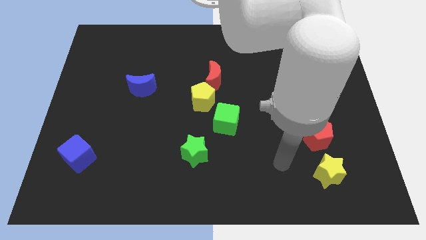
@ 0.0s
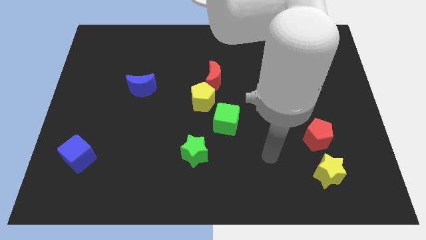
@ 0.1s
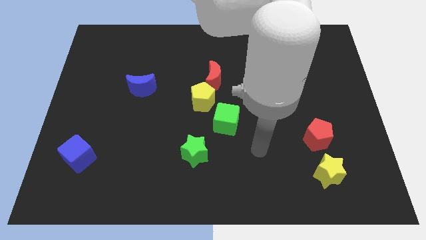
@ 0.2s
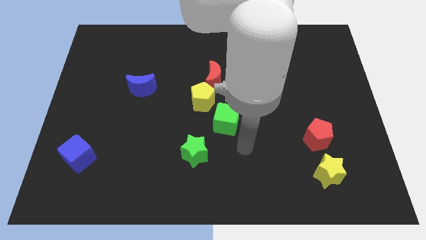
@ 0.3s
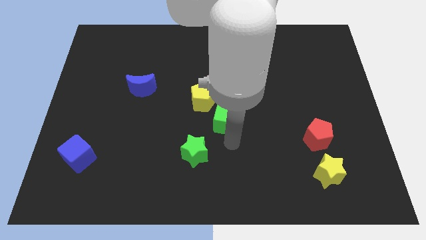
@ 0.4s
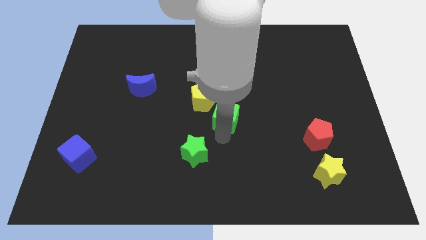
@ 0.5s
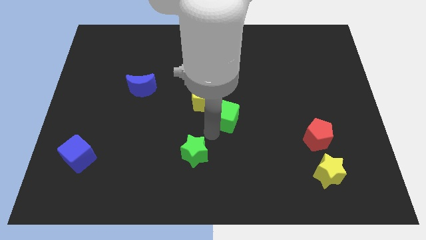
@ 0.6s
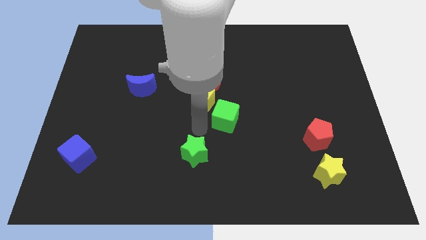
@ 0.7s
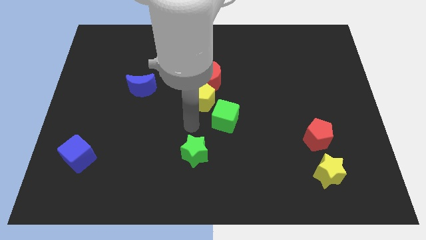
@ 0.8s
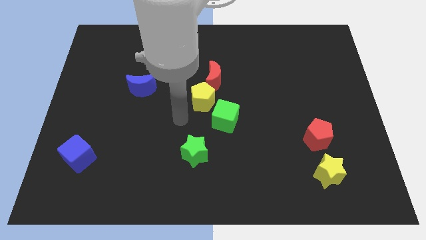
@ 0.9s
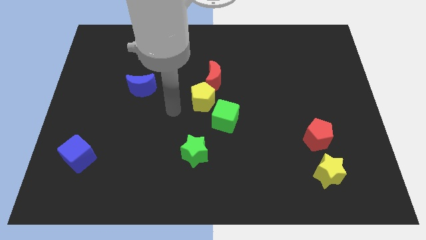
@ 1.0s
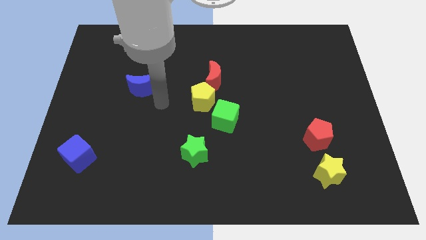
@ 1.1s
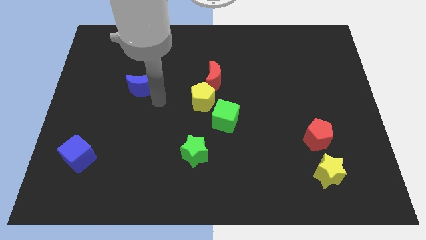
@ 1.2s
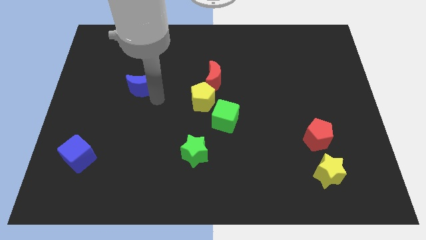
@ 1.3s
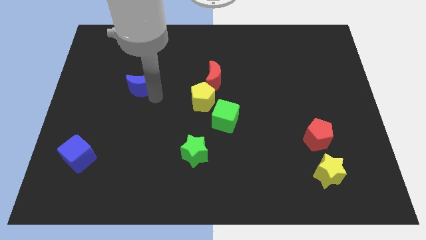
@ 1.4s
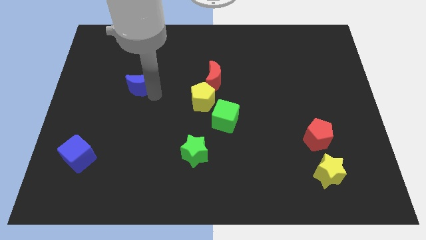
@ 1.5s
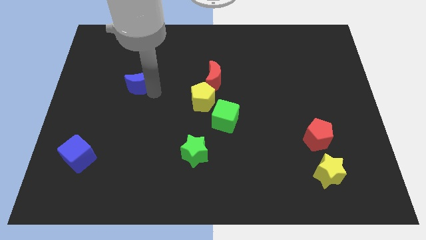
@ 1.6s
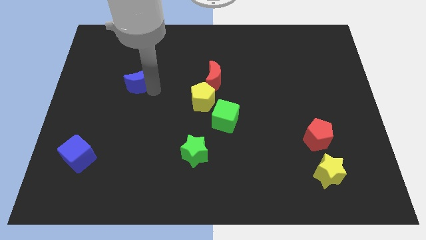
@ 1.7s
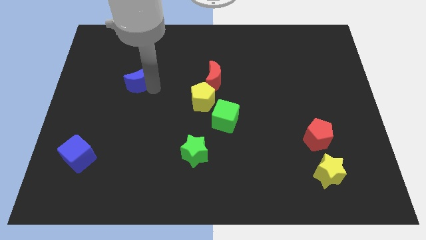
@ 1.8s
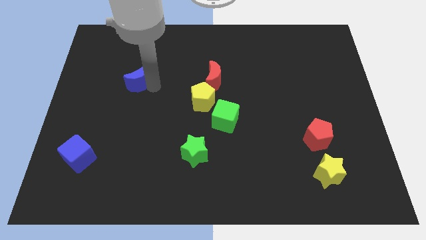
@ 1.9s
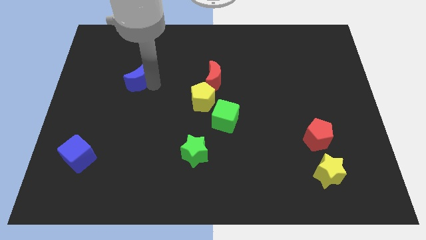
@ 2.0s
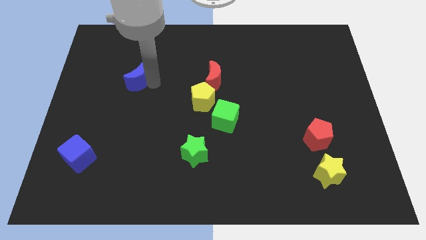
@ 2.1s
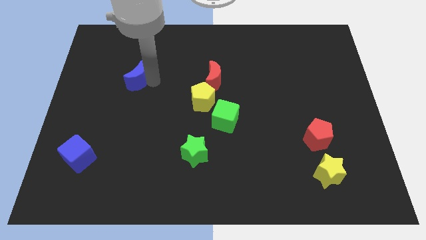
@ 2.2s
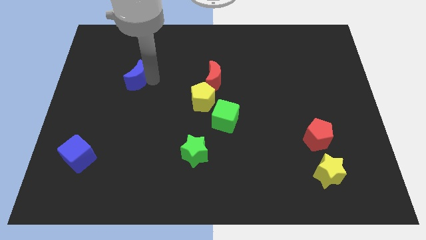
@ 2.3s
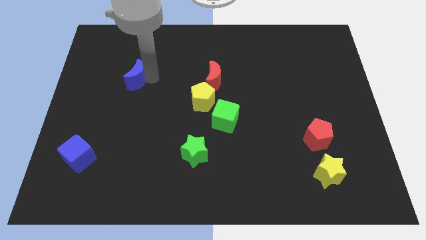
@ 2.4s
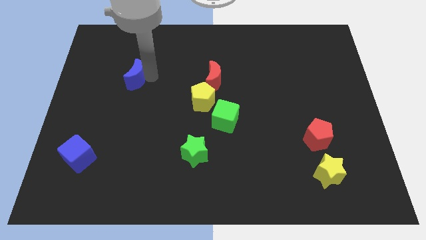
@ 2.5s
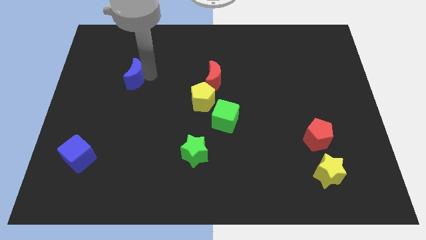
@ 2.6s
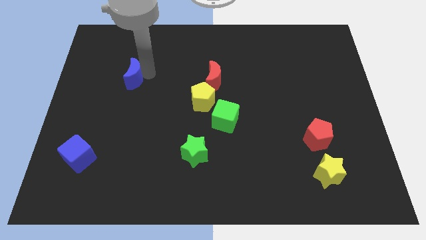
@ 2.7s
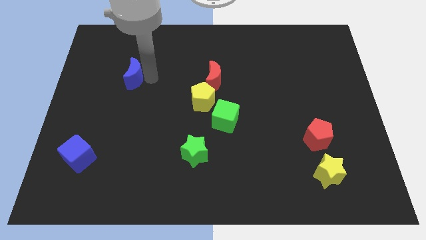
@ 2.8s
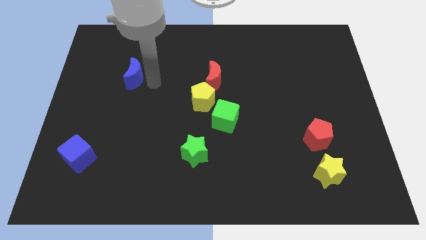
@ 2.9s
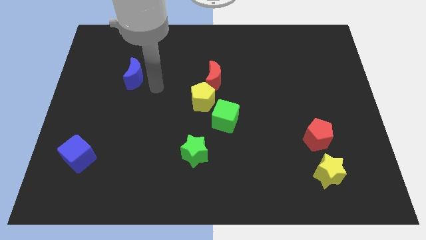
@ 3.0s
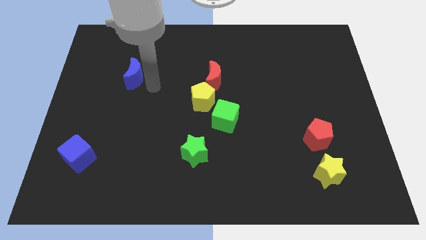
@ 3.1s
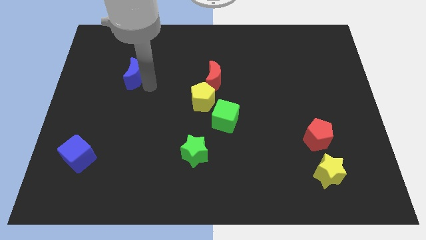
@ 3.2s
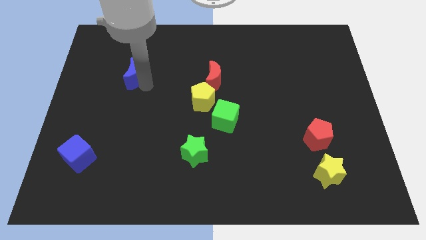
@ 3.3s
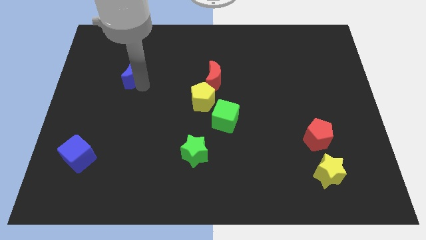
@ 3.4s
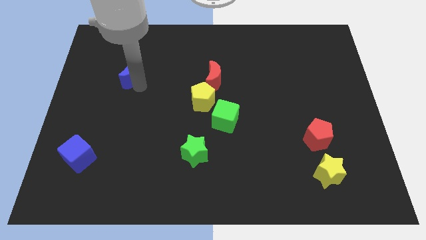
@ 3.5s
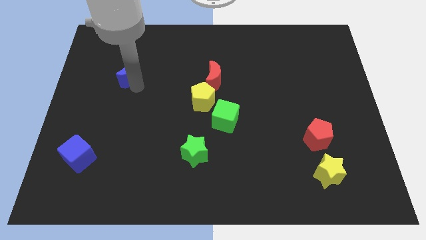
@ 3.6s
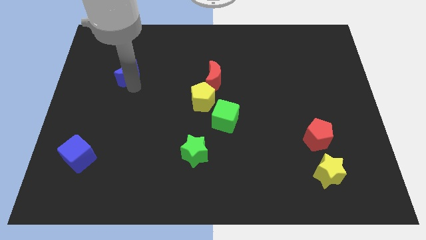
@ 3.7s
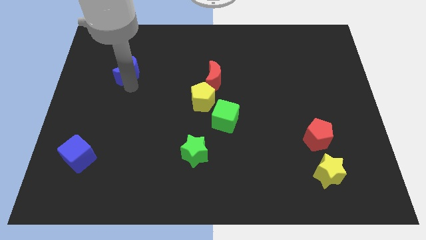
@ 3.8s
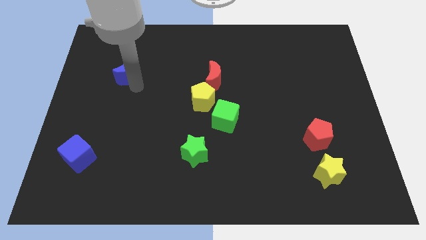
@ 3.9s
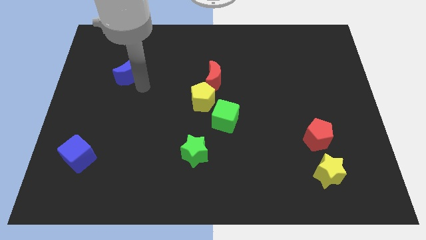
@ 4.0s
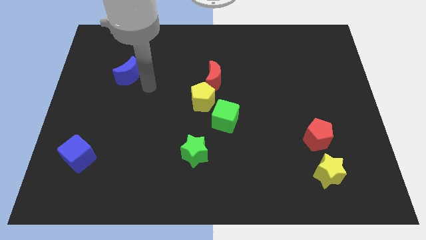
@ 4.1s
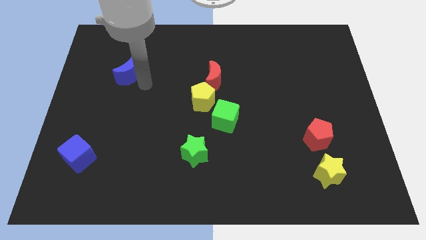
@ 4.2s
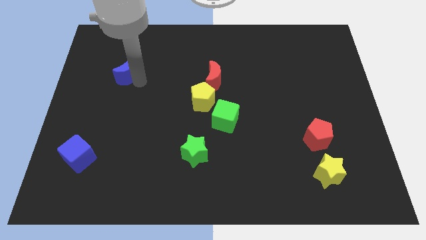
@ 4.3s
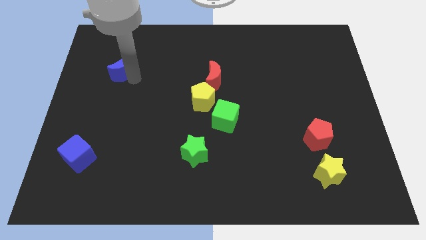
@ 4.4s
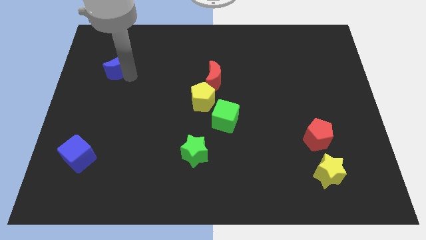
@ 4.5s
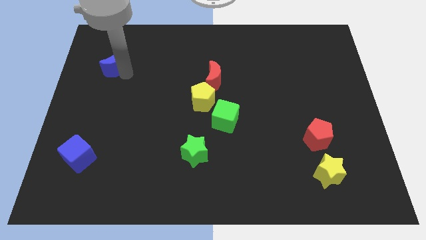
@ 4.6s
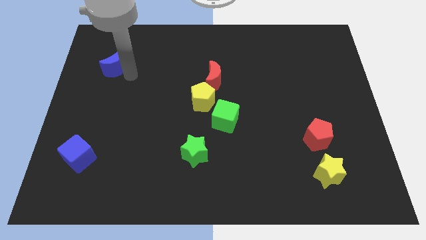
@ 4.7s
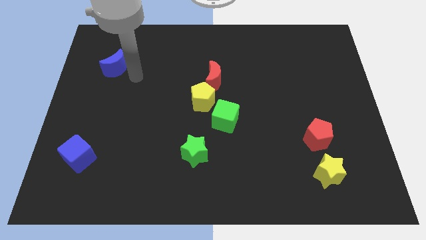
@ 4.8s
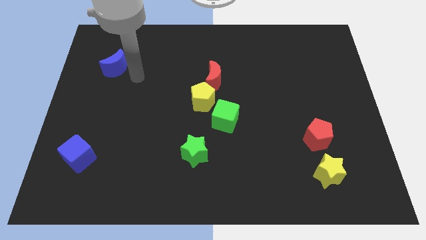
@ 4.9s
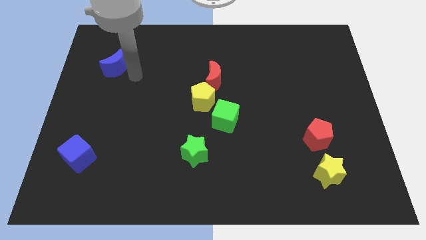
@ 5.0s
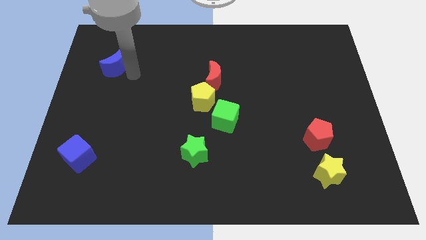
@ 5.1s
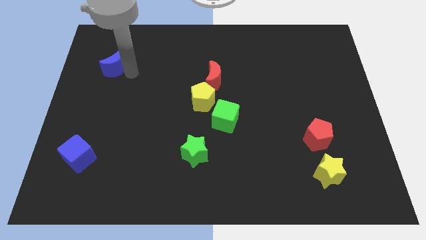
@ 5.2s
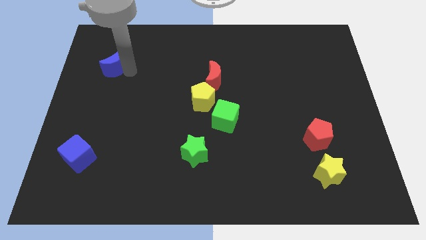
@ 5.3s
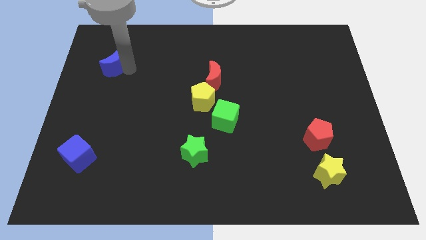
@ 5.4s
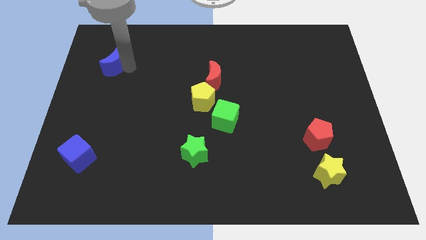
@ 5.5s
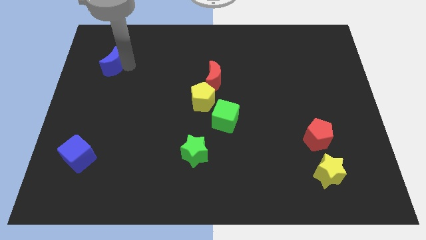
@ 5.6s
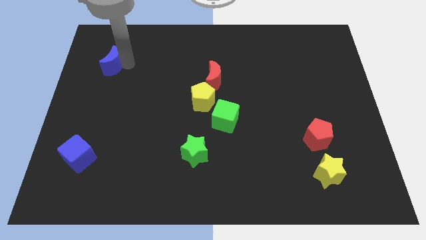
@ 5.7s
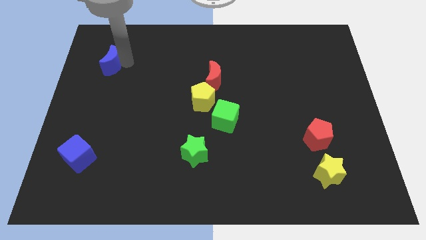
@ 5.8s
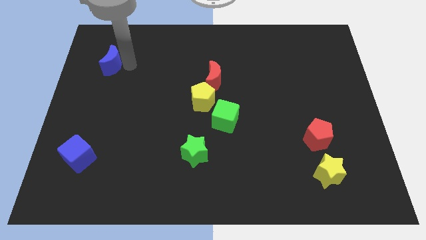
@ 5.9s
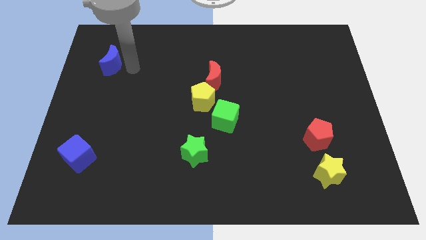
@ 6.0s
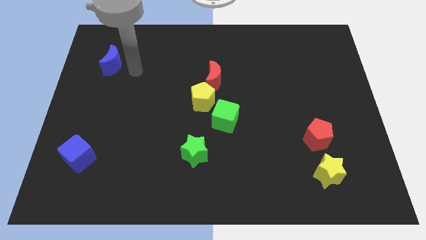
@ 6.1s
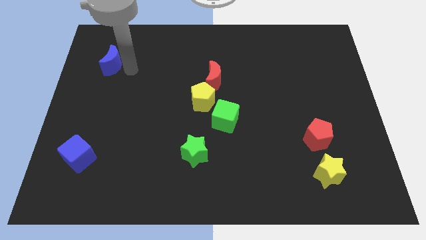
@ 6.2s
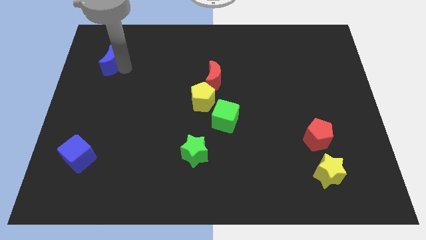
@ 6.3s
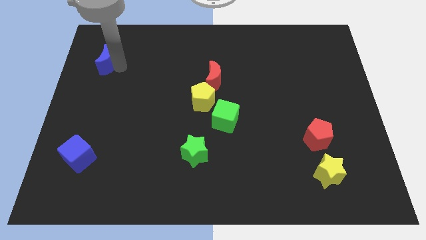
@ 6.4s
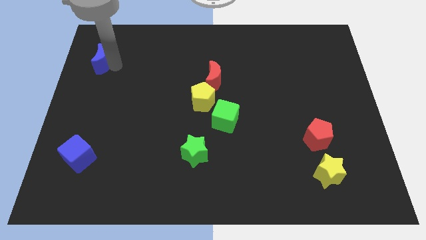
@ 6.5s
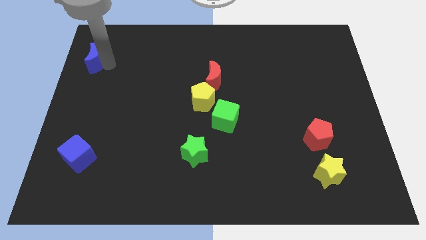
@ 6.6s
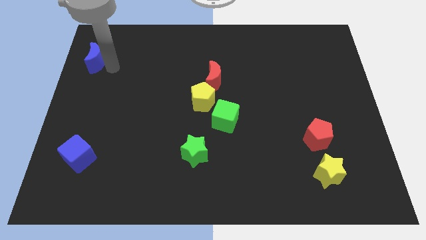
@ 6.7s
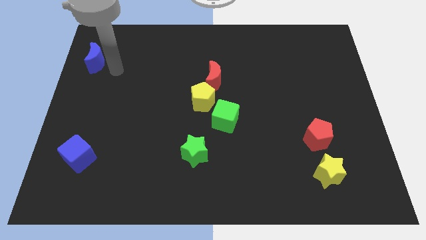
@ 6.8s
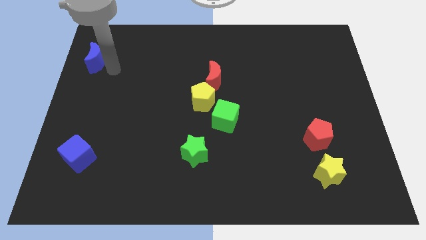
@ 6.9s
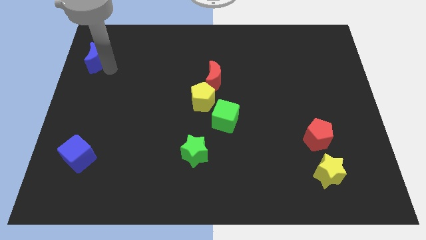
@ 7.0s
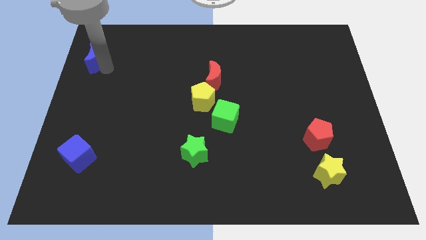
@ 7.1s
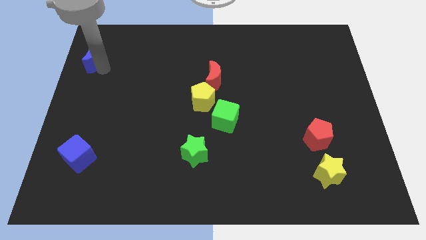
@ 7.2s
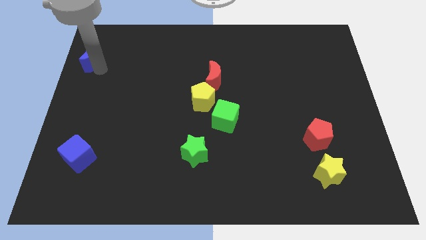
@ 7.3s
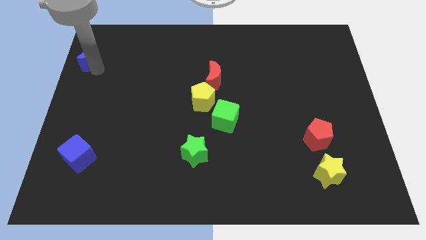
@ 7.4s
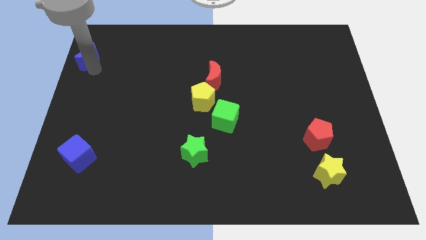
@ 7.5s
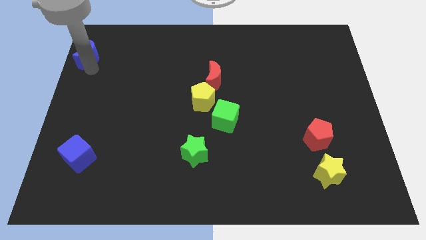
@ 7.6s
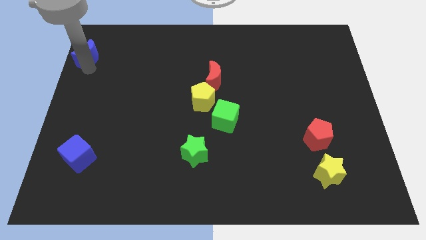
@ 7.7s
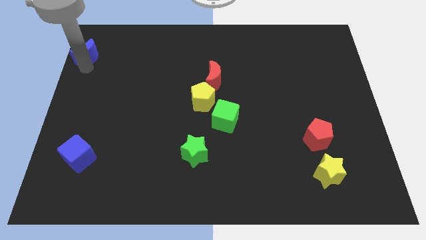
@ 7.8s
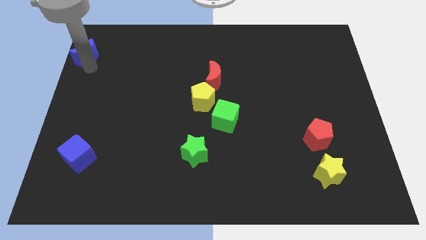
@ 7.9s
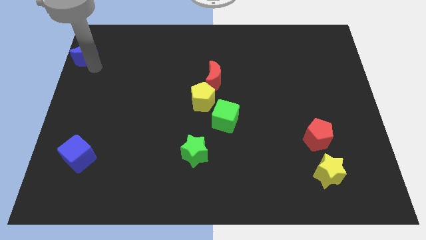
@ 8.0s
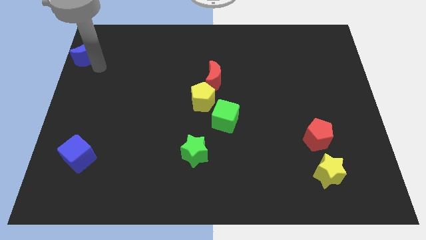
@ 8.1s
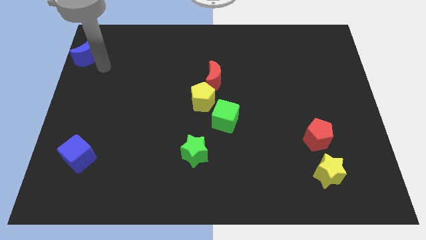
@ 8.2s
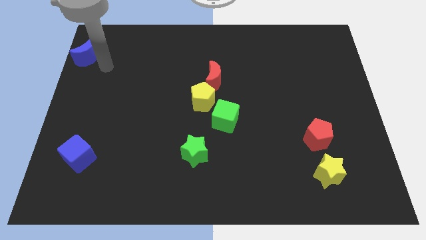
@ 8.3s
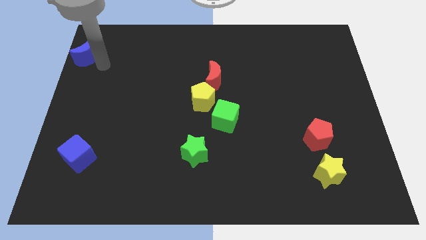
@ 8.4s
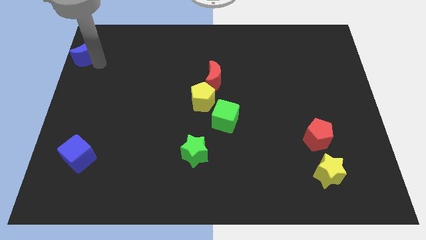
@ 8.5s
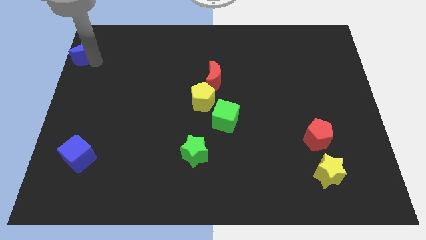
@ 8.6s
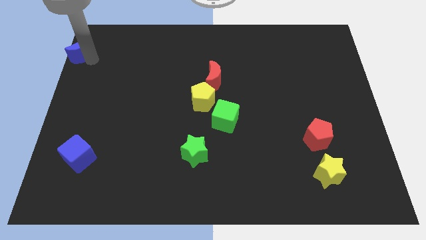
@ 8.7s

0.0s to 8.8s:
move the blue moon to the top left
